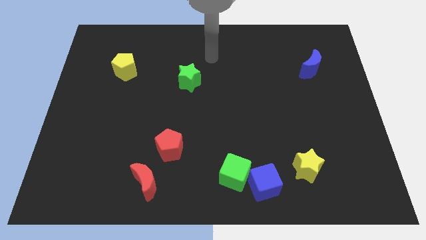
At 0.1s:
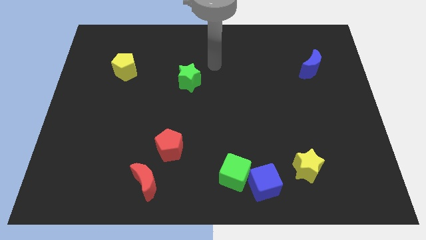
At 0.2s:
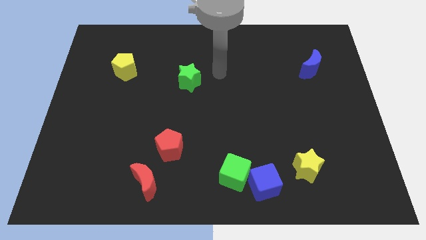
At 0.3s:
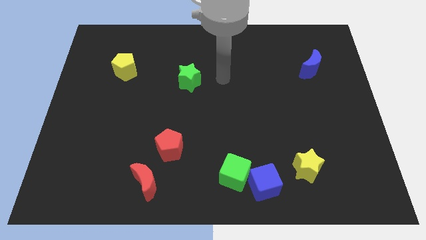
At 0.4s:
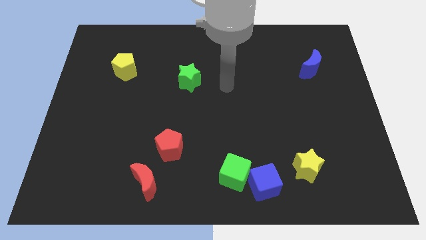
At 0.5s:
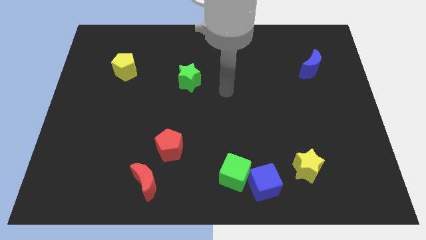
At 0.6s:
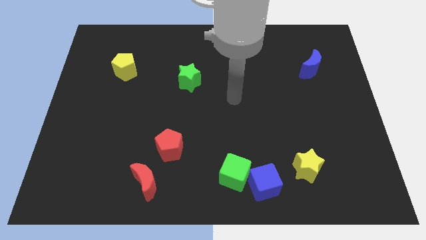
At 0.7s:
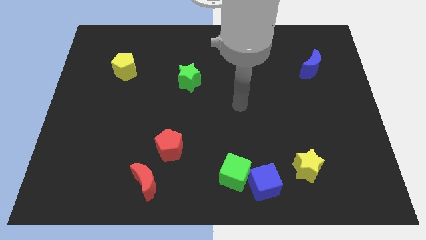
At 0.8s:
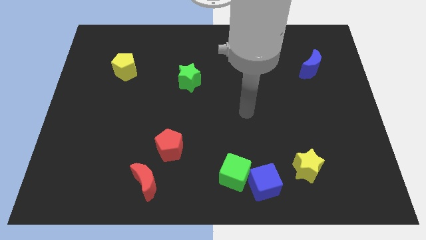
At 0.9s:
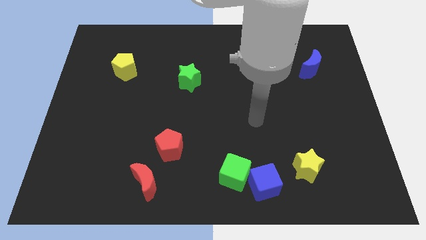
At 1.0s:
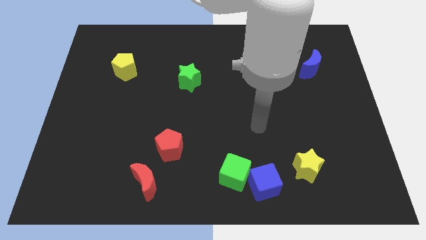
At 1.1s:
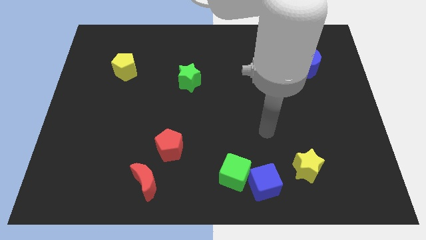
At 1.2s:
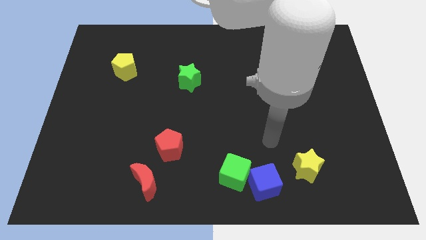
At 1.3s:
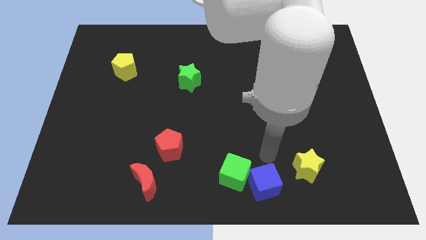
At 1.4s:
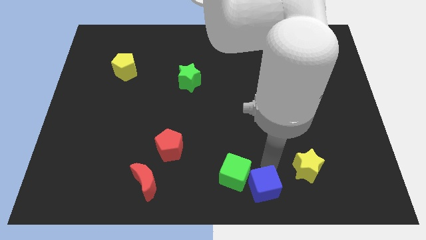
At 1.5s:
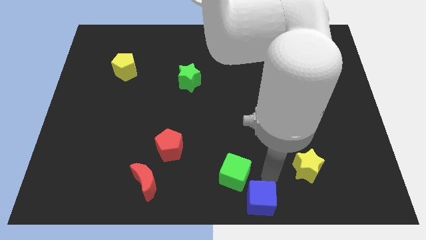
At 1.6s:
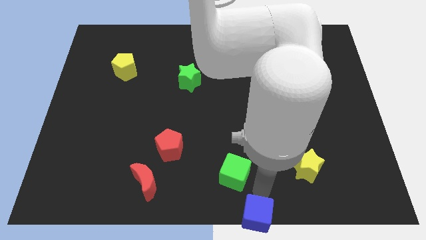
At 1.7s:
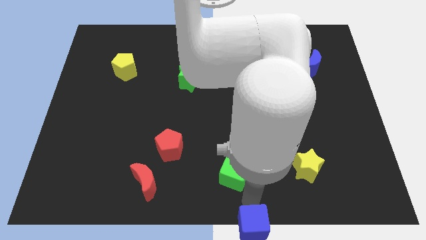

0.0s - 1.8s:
separate the green cube from the blue cube

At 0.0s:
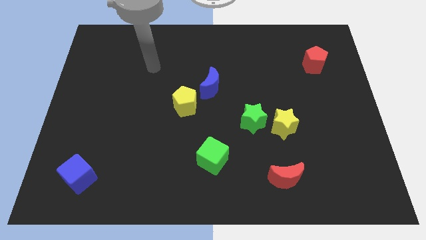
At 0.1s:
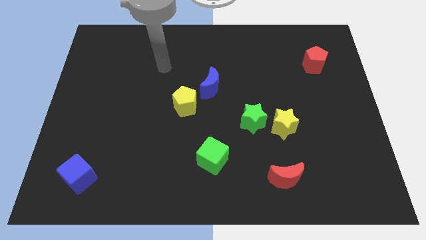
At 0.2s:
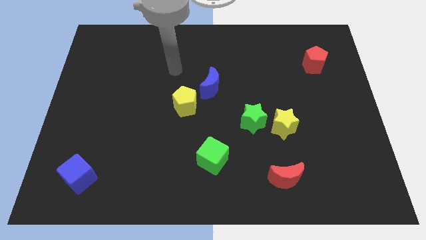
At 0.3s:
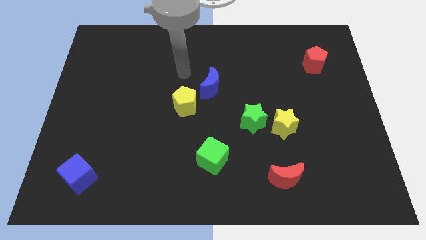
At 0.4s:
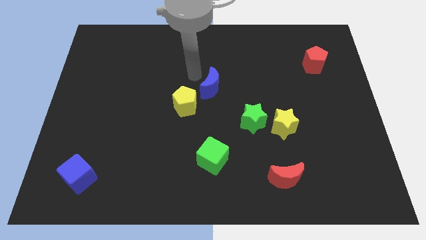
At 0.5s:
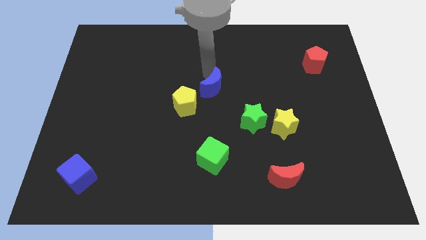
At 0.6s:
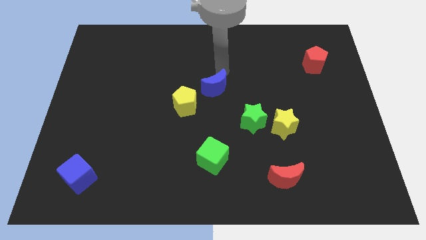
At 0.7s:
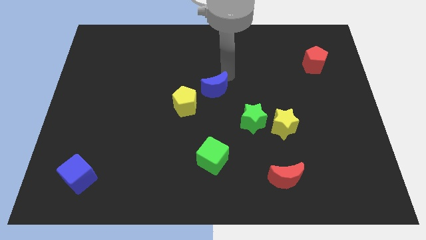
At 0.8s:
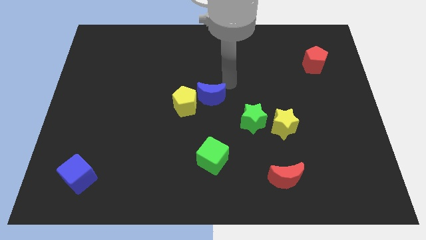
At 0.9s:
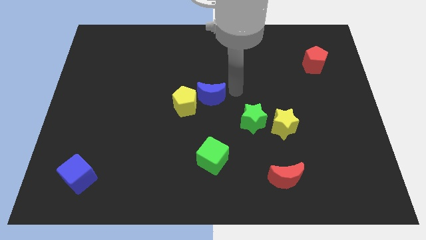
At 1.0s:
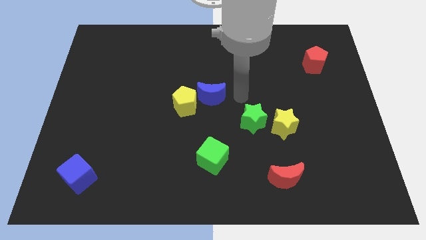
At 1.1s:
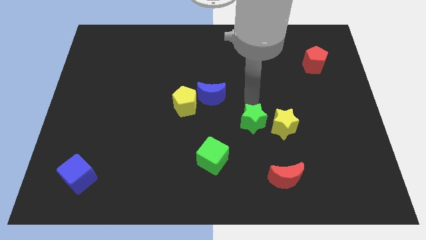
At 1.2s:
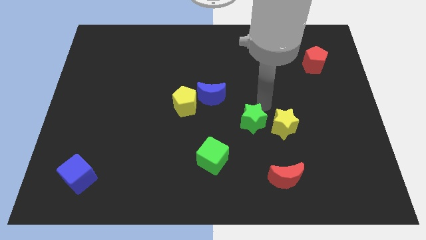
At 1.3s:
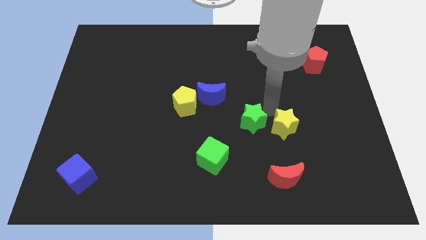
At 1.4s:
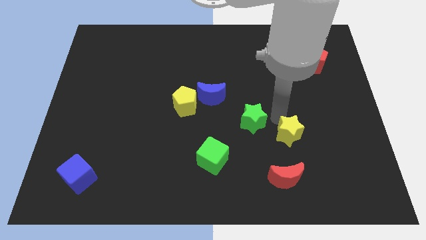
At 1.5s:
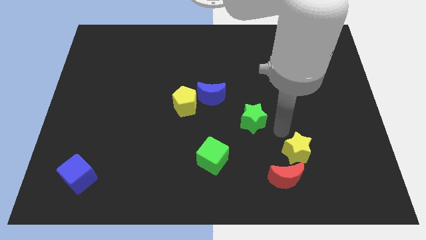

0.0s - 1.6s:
pull the green star apart from the yellow star

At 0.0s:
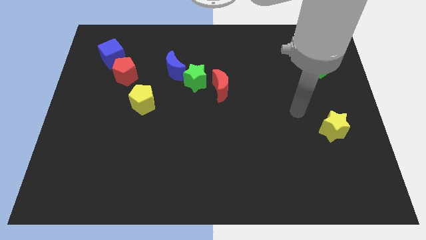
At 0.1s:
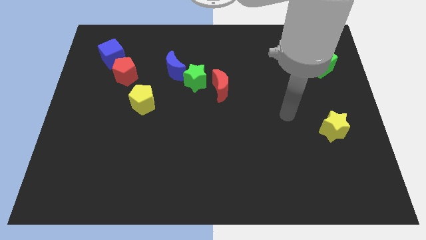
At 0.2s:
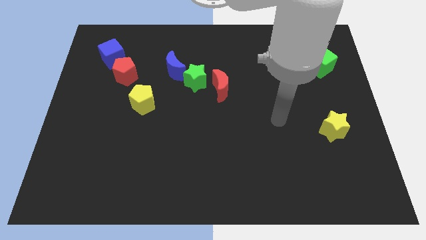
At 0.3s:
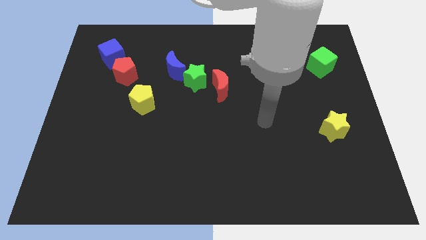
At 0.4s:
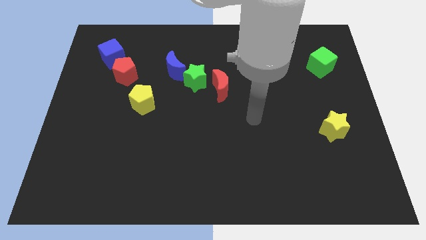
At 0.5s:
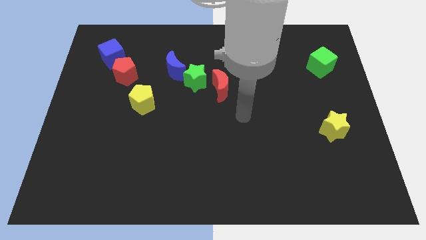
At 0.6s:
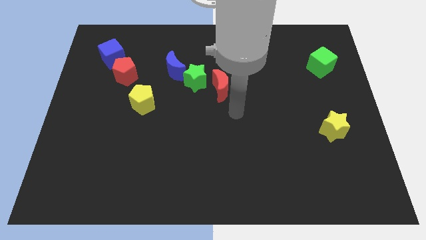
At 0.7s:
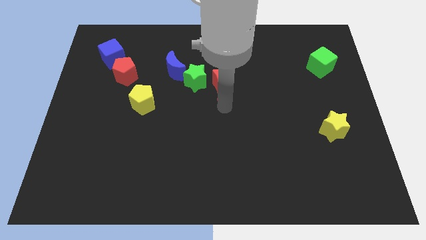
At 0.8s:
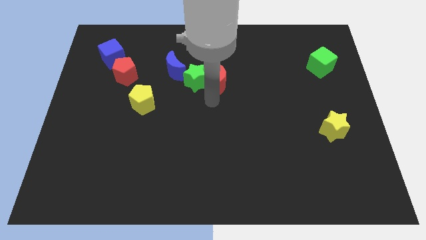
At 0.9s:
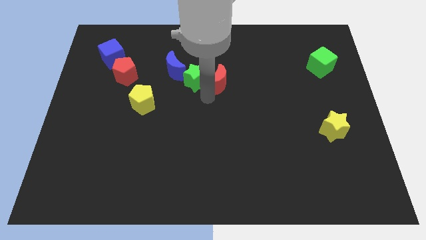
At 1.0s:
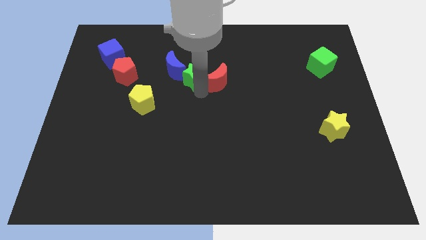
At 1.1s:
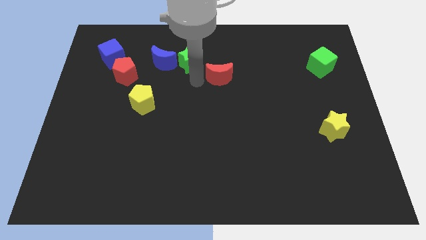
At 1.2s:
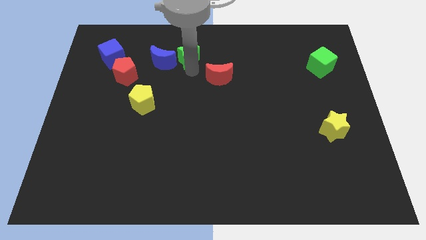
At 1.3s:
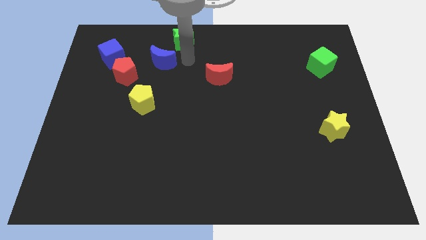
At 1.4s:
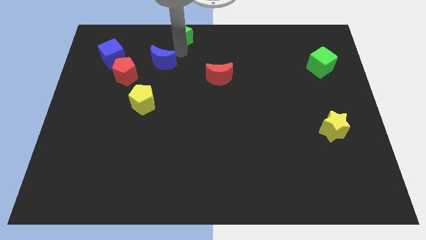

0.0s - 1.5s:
pull the blue moon apart from the green star

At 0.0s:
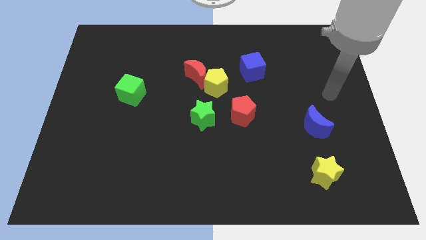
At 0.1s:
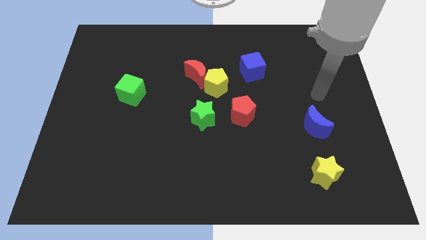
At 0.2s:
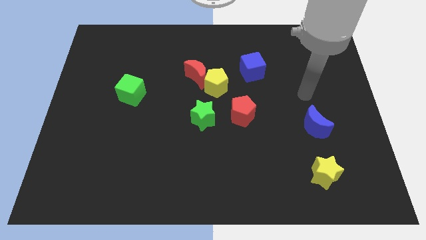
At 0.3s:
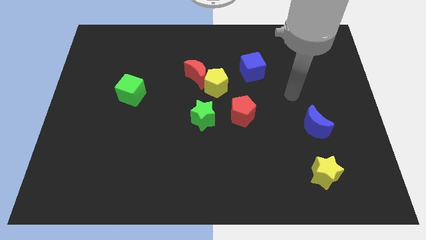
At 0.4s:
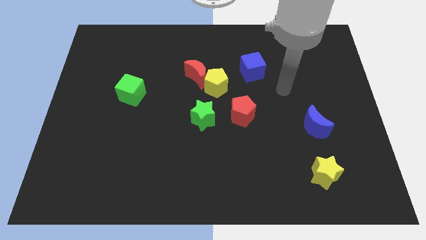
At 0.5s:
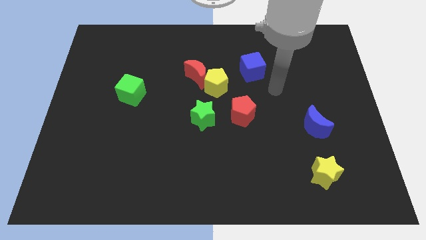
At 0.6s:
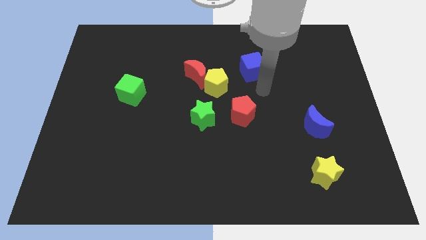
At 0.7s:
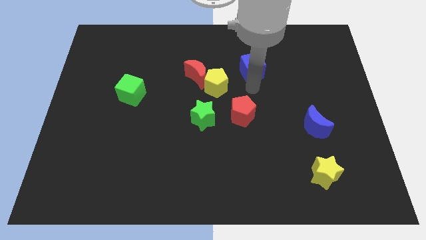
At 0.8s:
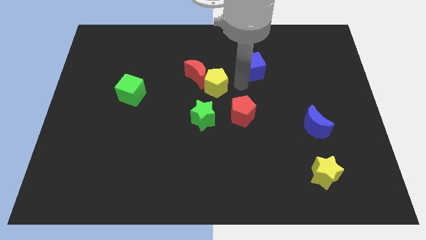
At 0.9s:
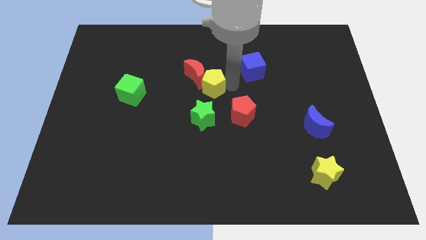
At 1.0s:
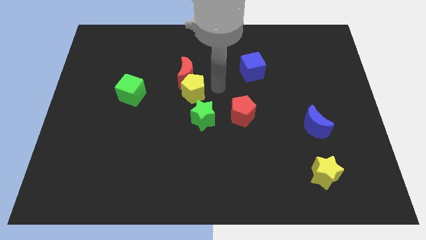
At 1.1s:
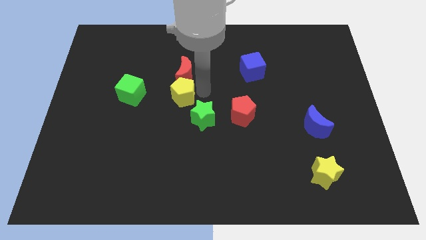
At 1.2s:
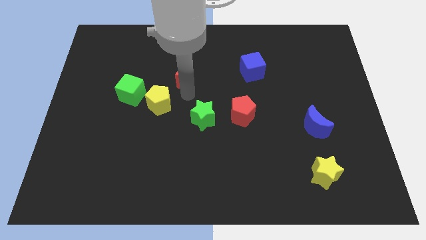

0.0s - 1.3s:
pull the red moon apart from the yellow pentagon

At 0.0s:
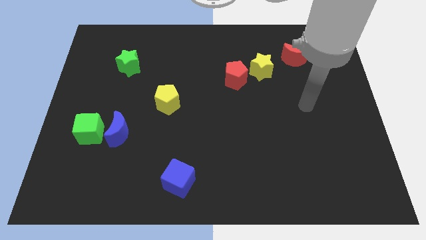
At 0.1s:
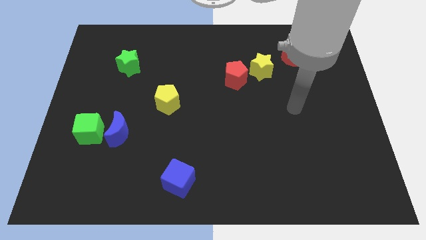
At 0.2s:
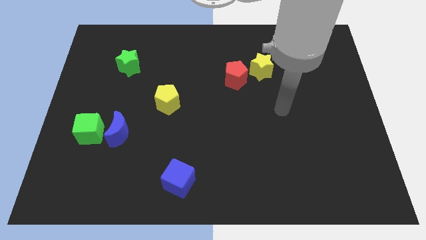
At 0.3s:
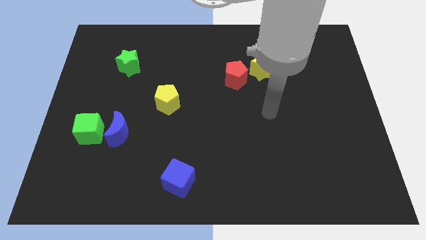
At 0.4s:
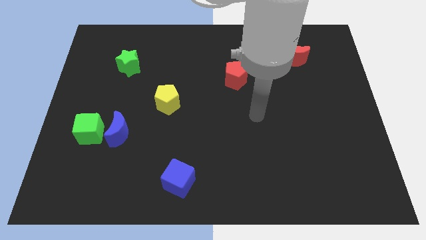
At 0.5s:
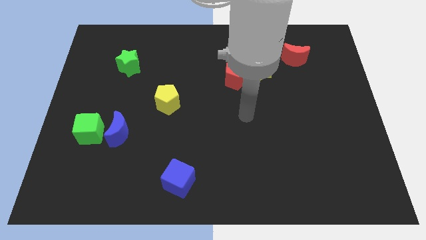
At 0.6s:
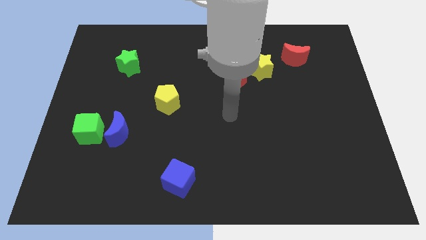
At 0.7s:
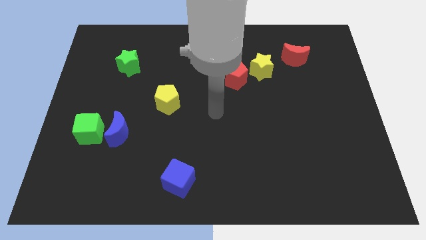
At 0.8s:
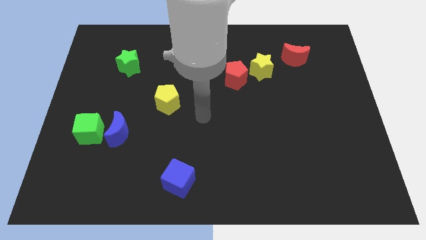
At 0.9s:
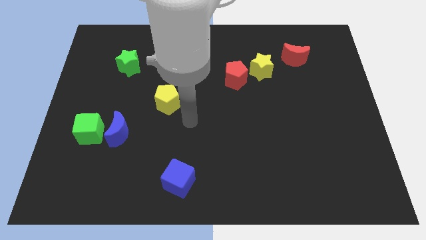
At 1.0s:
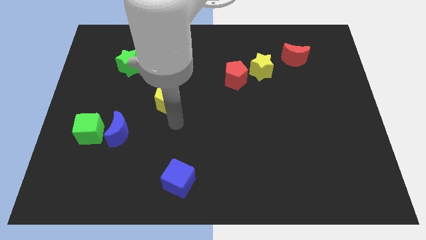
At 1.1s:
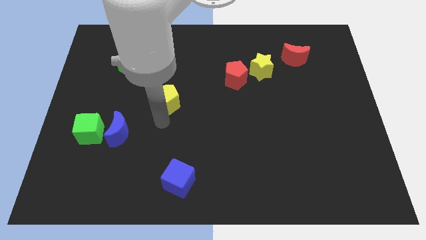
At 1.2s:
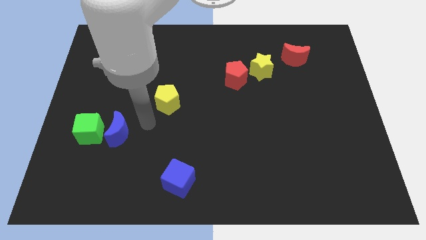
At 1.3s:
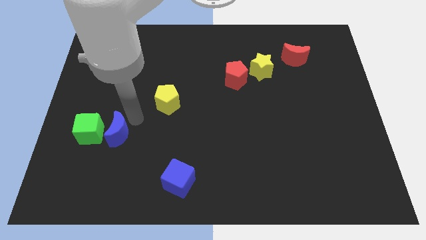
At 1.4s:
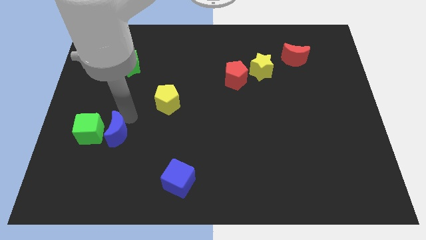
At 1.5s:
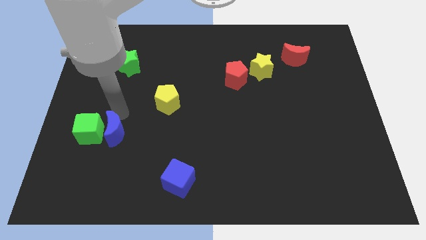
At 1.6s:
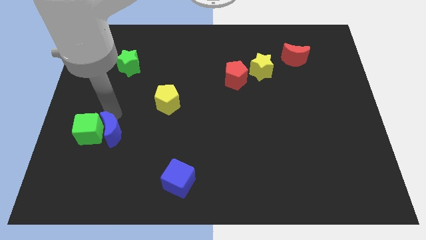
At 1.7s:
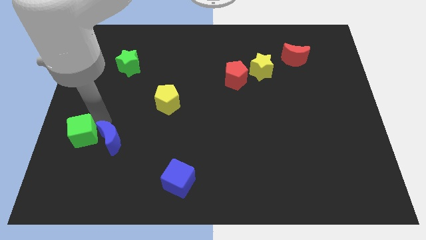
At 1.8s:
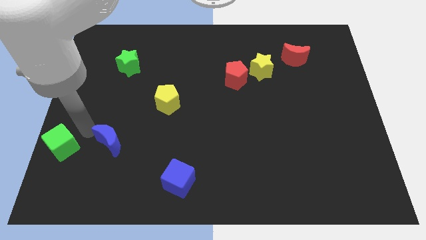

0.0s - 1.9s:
move the blue moon away from the green cube

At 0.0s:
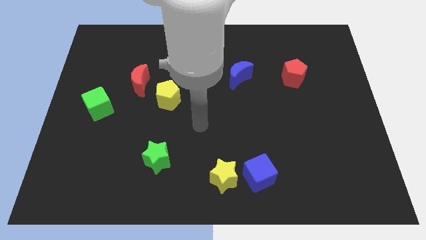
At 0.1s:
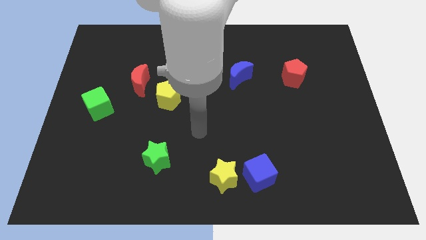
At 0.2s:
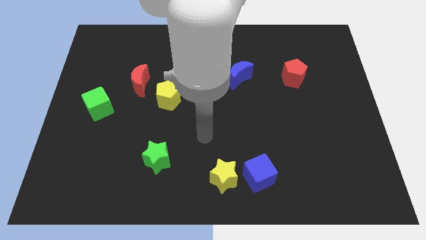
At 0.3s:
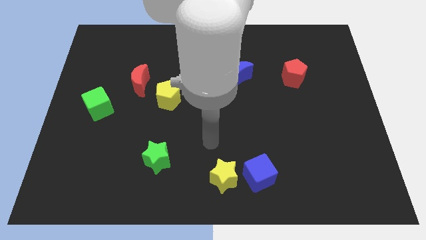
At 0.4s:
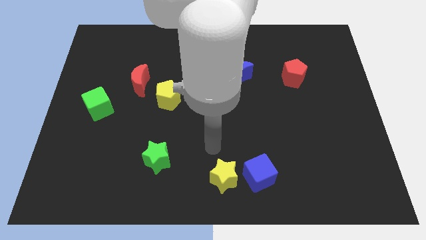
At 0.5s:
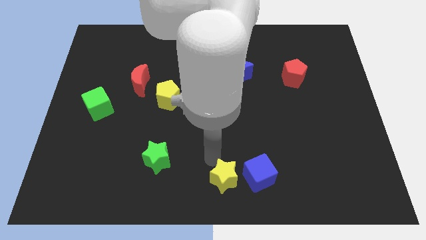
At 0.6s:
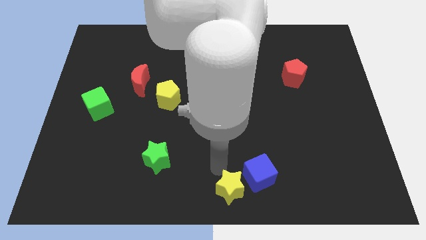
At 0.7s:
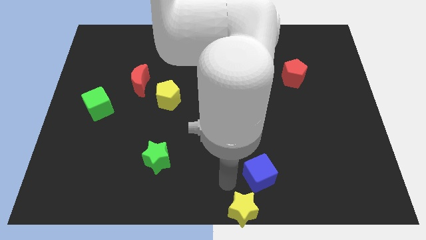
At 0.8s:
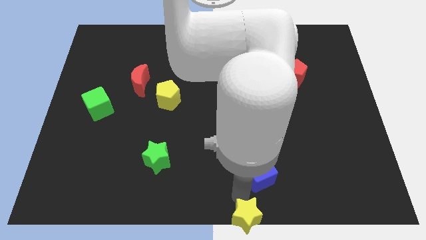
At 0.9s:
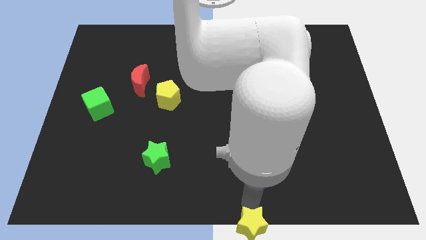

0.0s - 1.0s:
move the blue cube away from the yellow star
